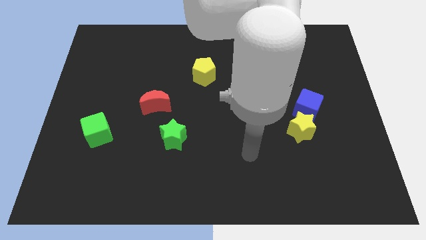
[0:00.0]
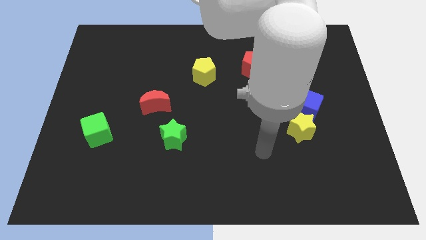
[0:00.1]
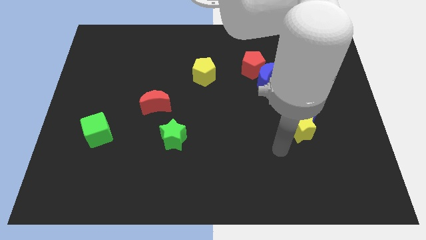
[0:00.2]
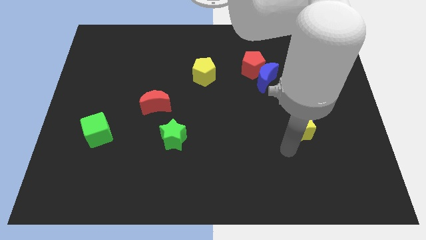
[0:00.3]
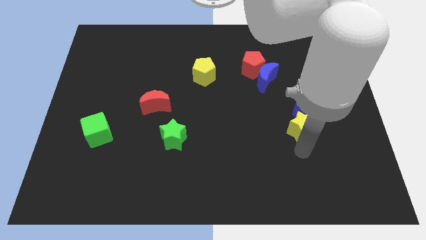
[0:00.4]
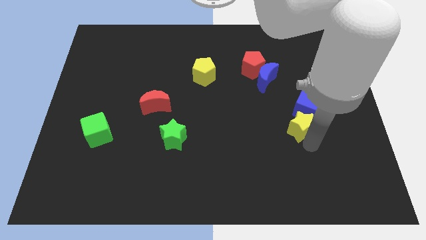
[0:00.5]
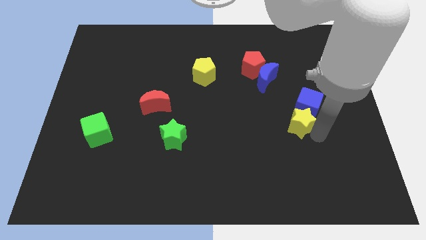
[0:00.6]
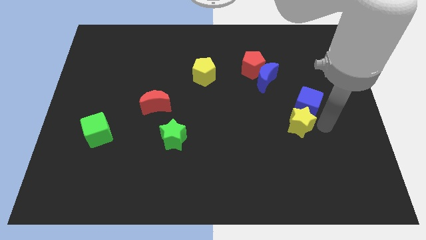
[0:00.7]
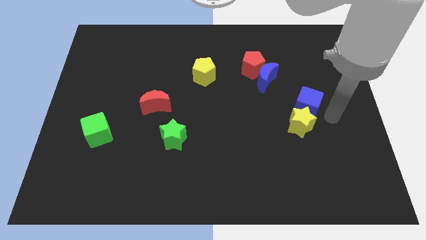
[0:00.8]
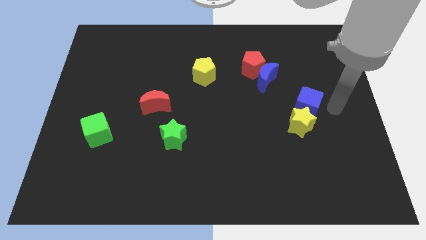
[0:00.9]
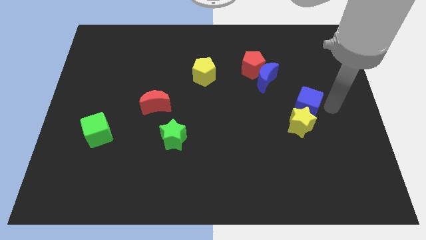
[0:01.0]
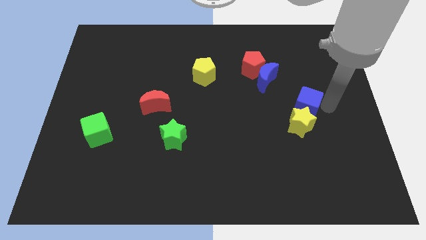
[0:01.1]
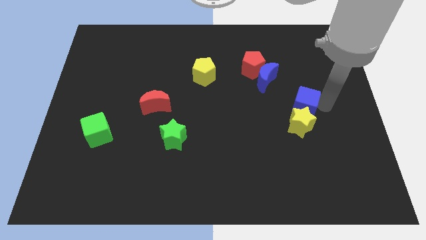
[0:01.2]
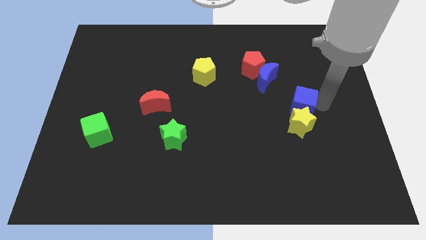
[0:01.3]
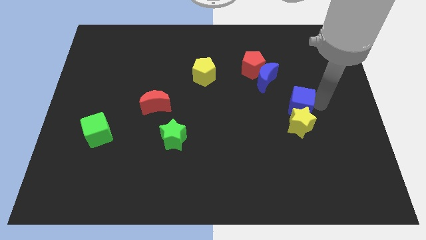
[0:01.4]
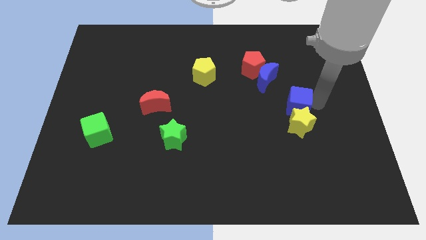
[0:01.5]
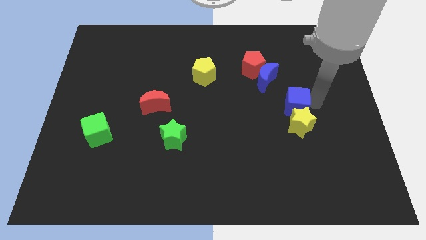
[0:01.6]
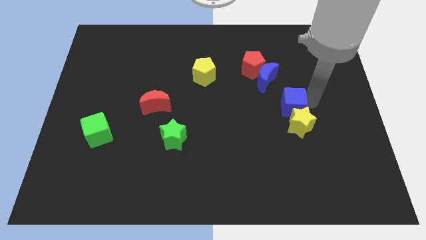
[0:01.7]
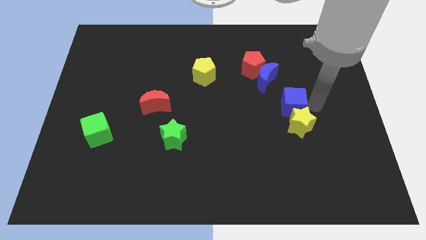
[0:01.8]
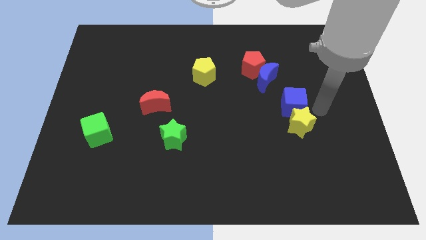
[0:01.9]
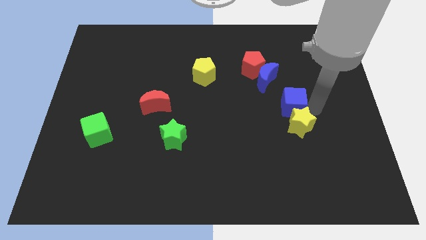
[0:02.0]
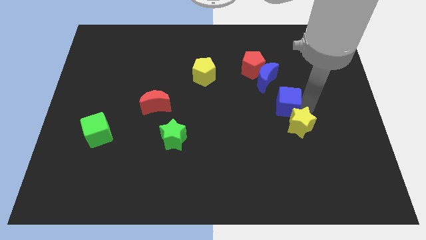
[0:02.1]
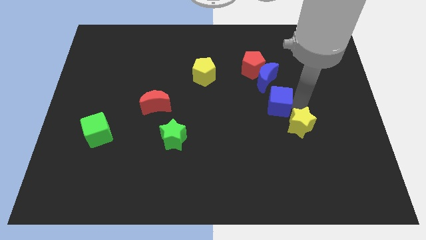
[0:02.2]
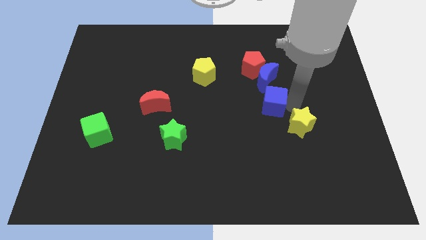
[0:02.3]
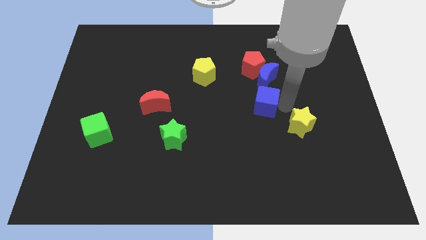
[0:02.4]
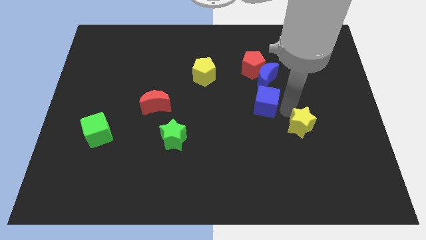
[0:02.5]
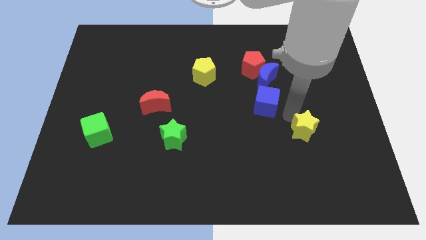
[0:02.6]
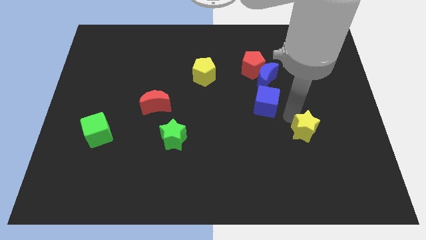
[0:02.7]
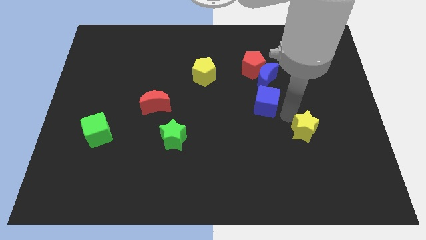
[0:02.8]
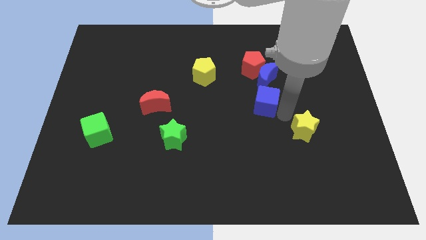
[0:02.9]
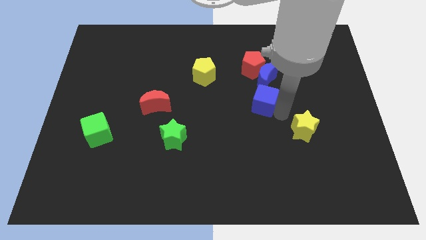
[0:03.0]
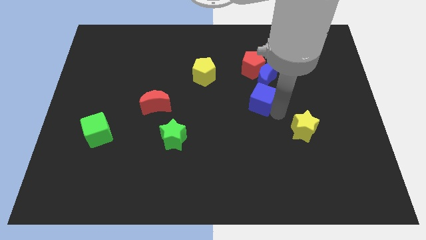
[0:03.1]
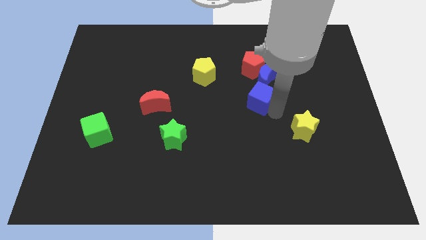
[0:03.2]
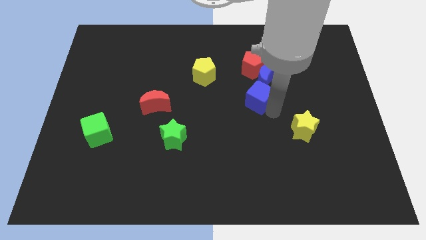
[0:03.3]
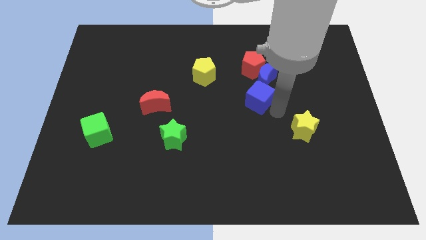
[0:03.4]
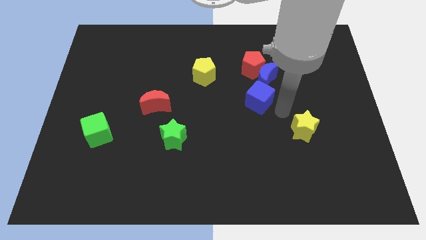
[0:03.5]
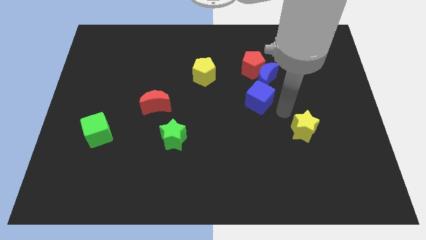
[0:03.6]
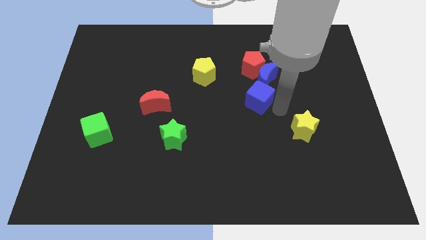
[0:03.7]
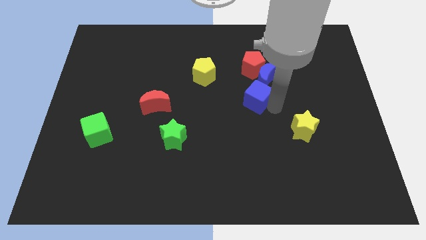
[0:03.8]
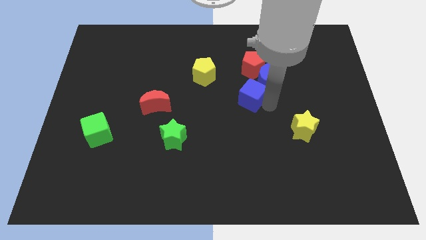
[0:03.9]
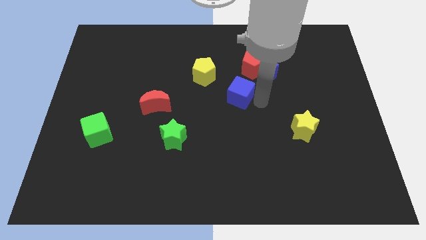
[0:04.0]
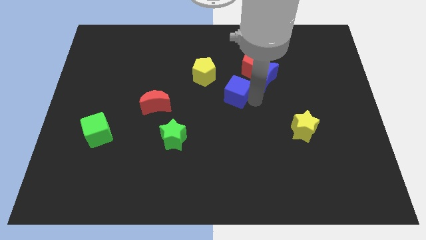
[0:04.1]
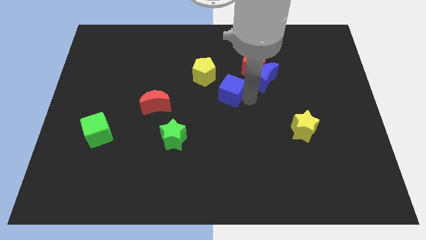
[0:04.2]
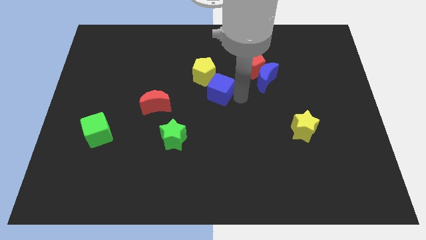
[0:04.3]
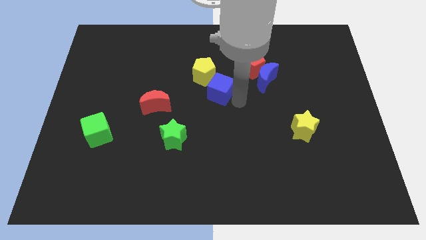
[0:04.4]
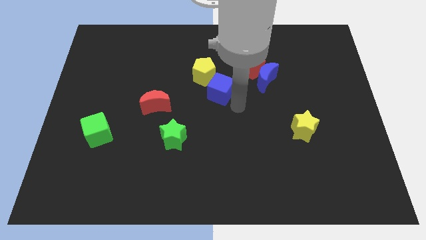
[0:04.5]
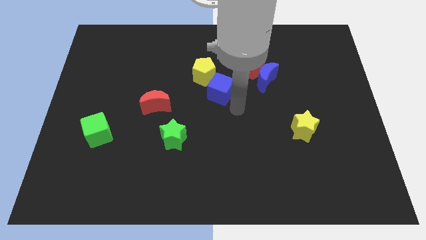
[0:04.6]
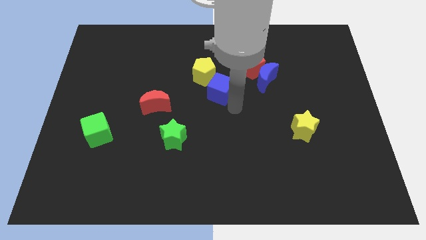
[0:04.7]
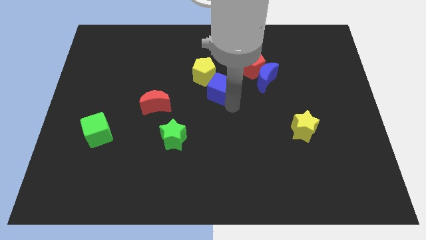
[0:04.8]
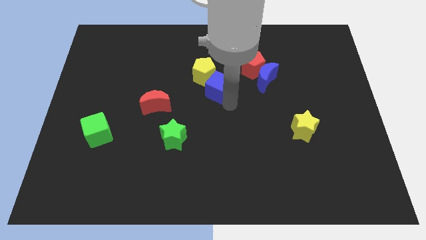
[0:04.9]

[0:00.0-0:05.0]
slide the blue cube to the yellow pentagon

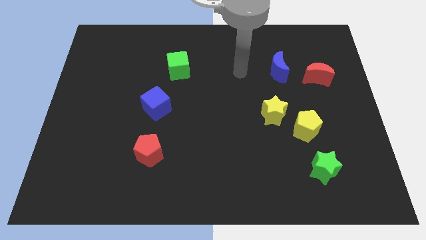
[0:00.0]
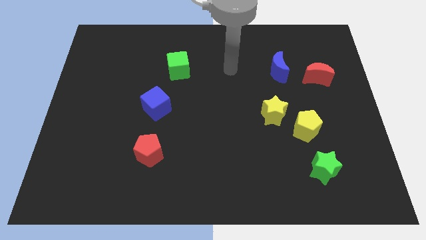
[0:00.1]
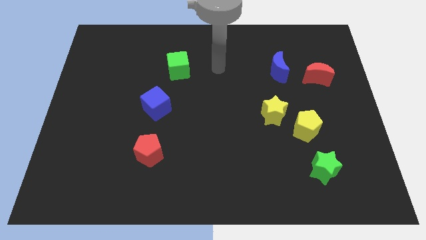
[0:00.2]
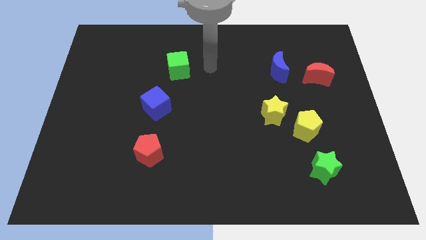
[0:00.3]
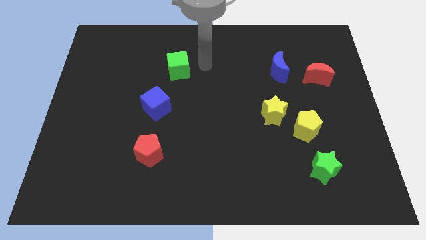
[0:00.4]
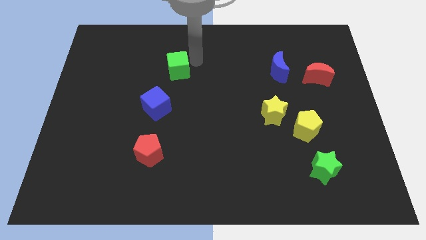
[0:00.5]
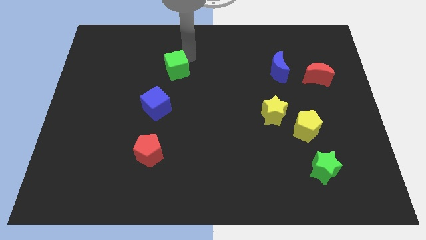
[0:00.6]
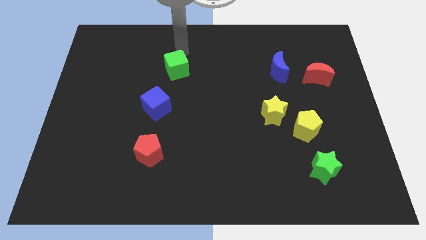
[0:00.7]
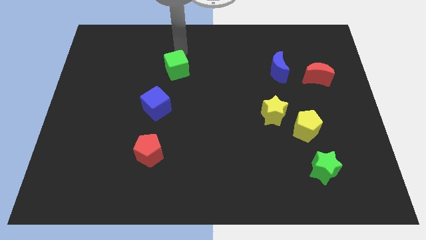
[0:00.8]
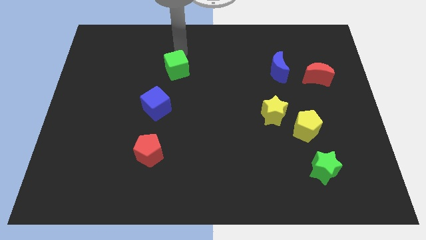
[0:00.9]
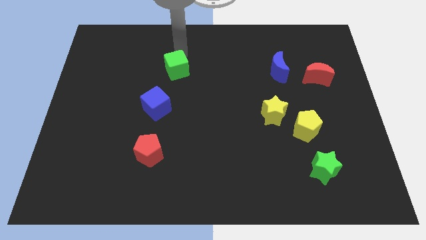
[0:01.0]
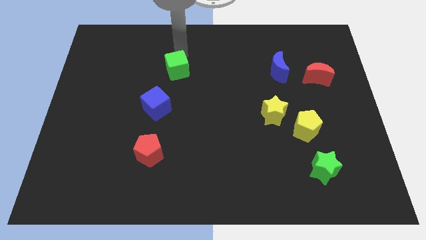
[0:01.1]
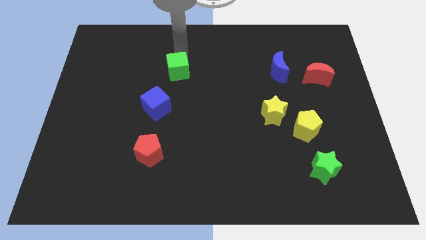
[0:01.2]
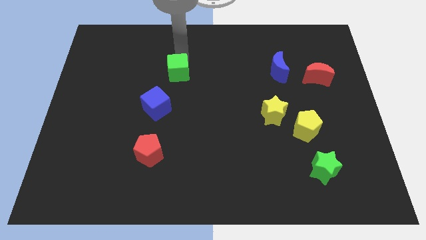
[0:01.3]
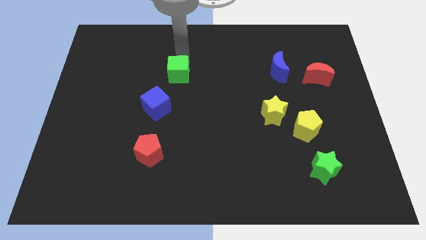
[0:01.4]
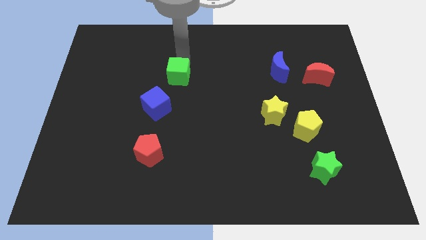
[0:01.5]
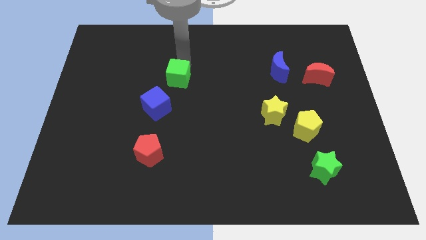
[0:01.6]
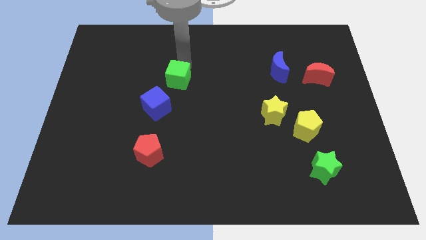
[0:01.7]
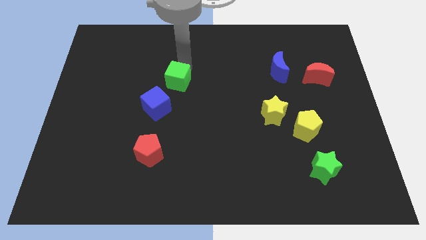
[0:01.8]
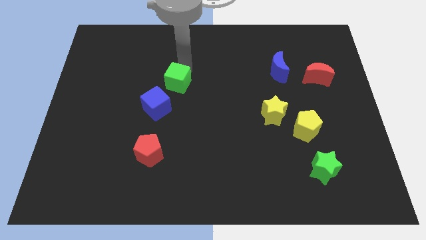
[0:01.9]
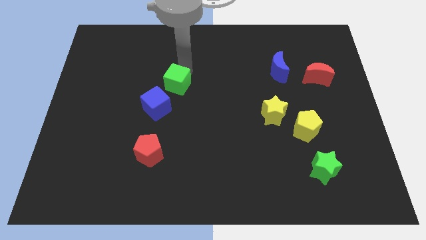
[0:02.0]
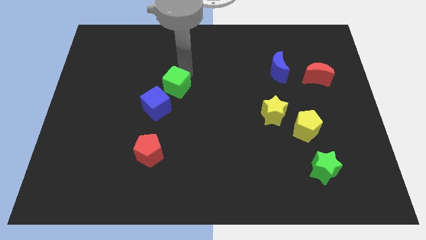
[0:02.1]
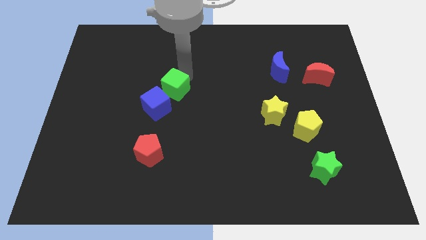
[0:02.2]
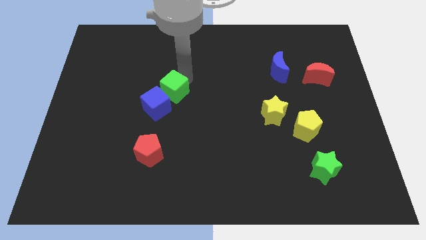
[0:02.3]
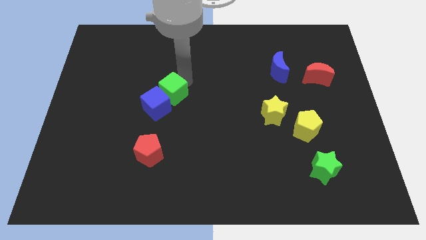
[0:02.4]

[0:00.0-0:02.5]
move the green cube close to the blue cube
